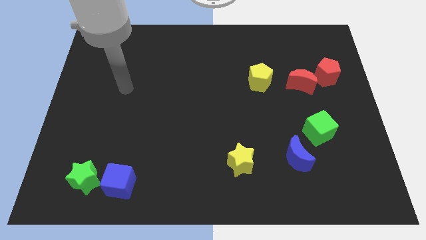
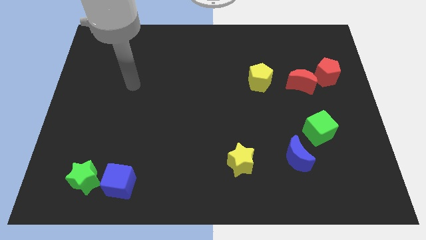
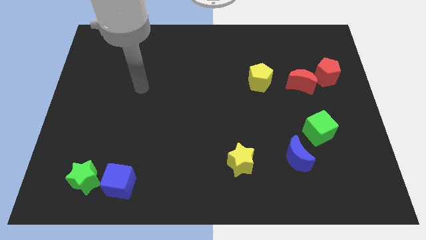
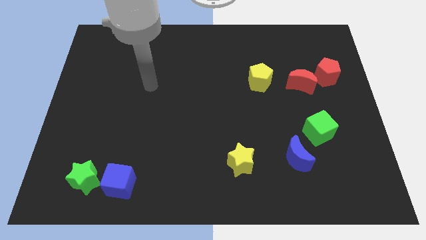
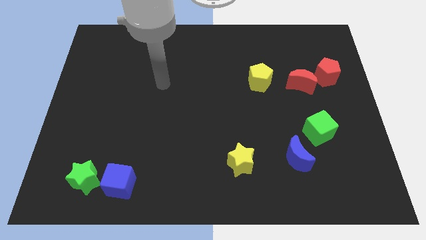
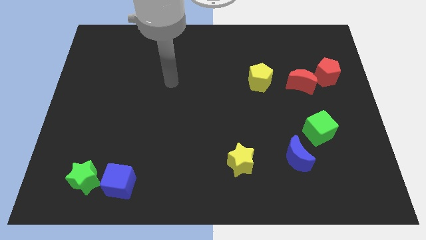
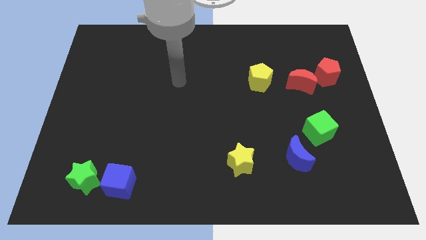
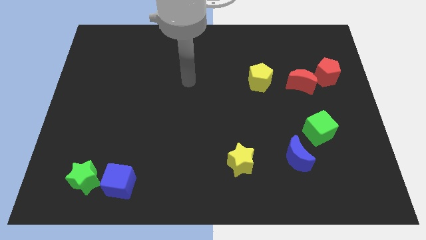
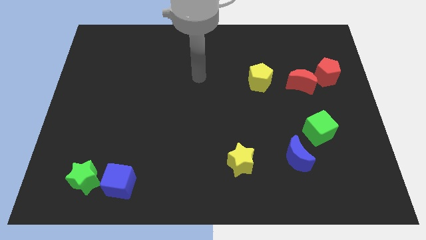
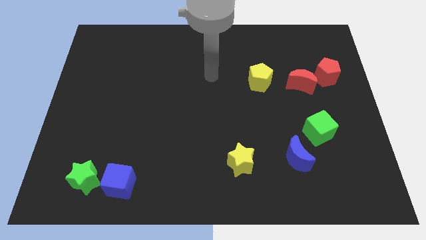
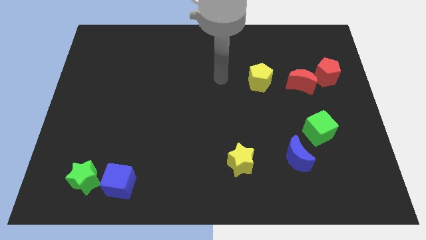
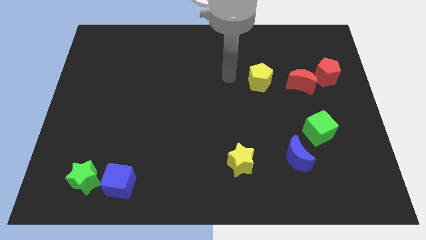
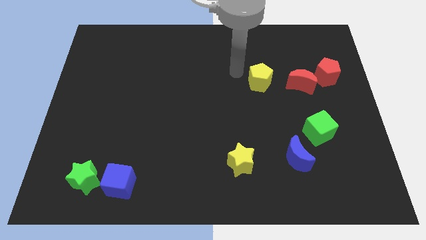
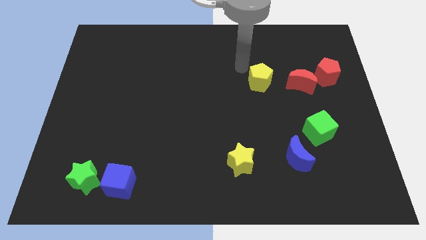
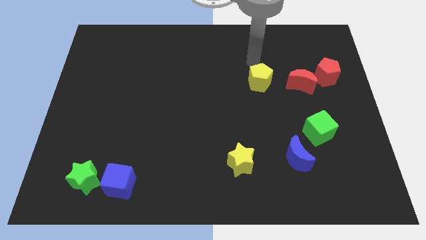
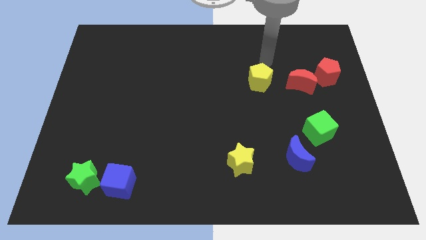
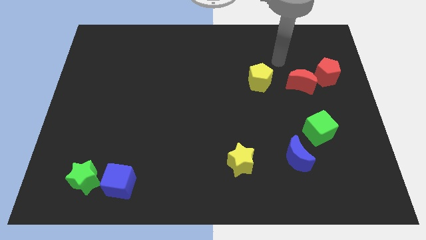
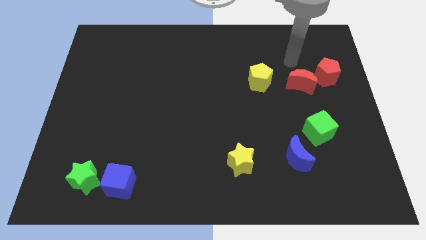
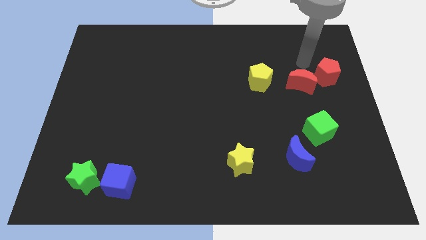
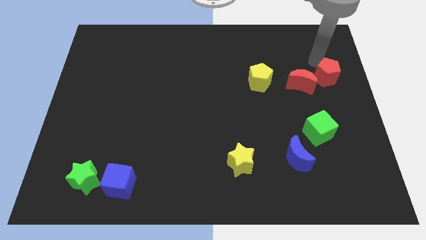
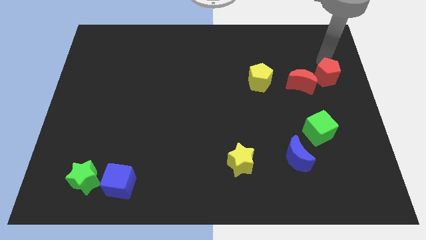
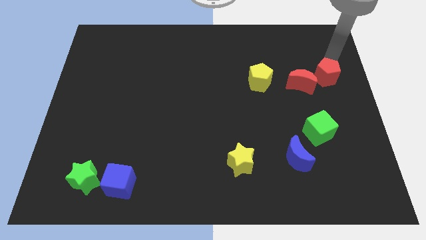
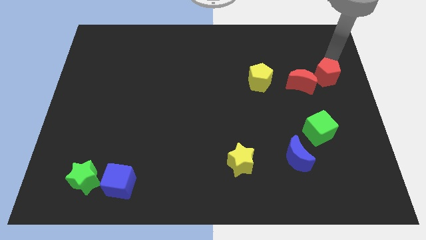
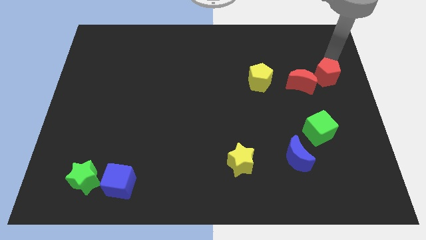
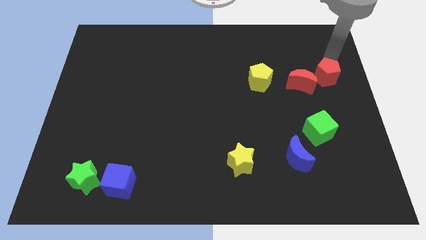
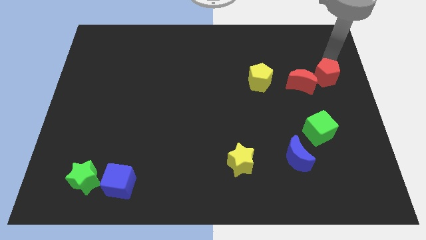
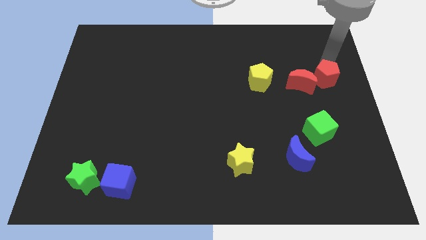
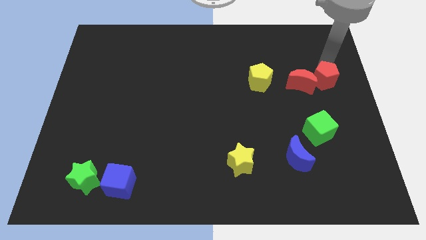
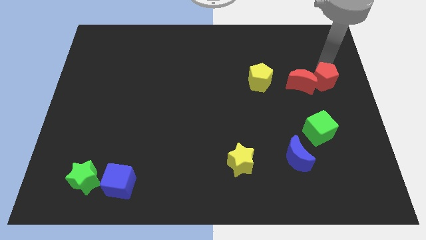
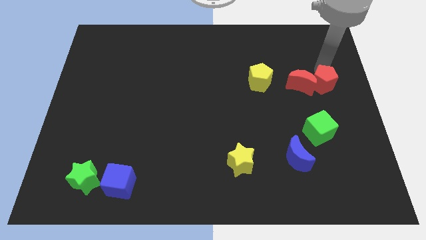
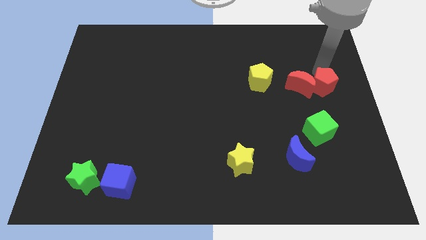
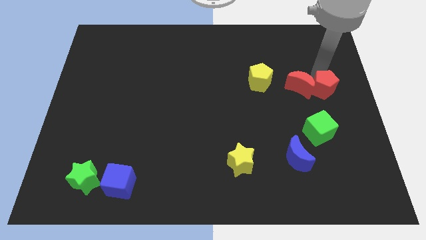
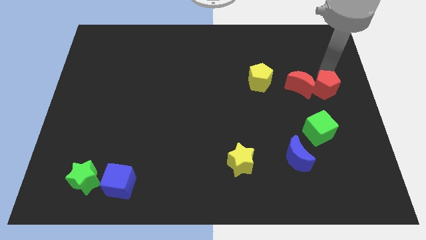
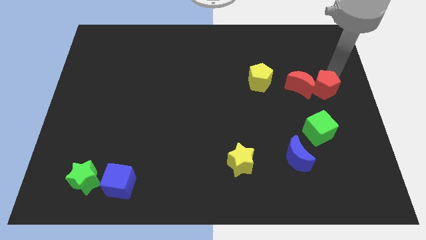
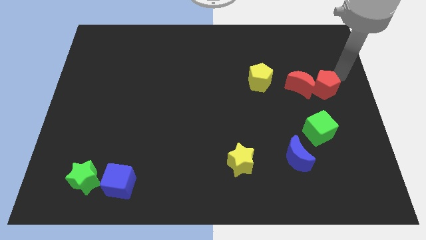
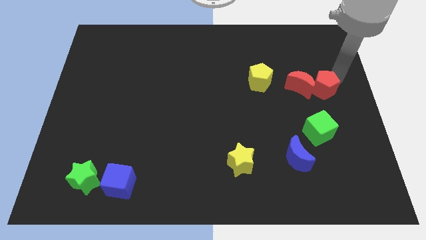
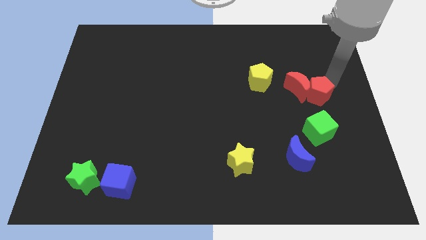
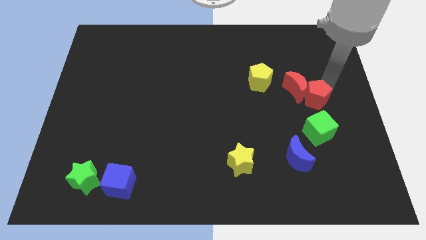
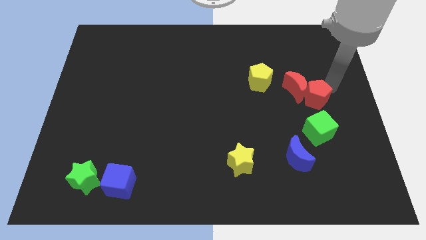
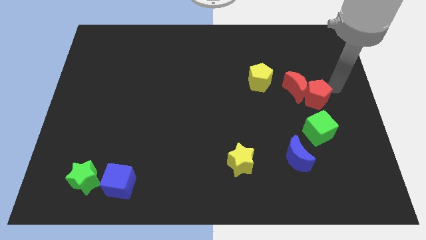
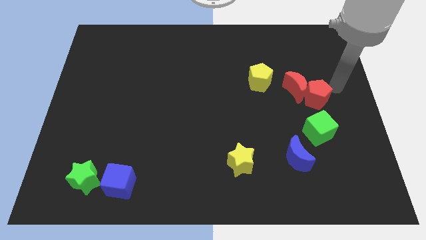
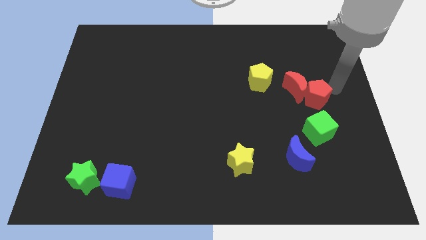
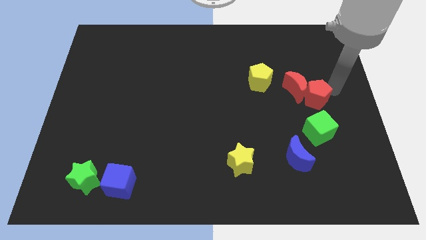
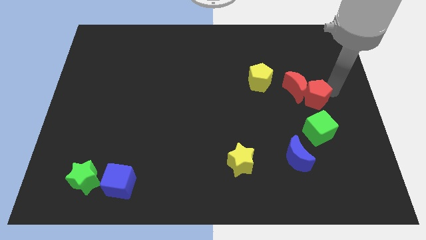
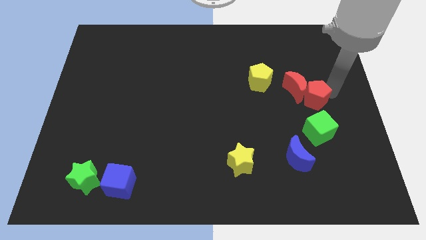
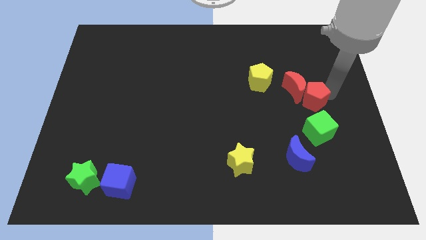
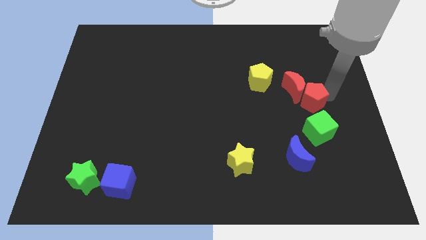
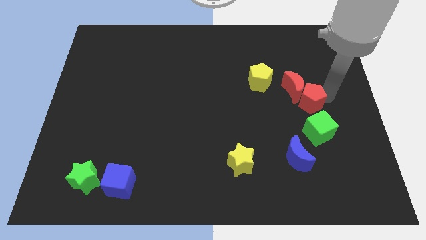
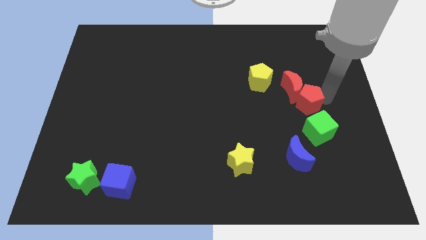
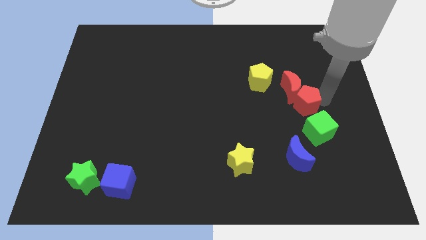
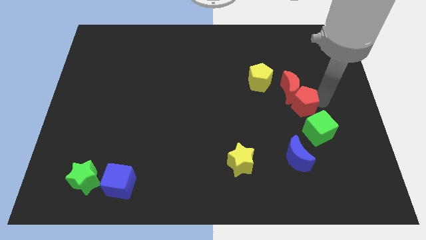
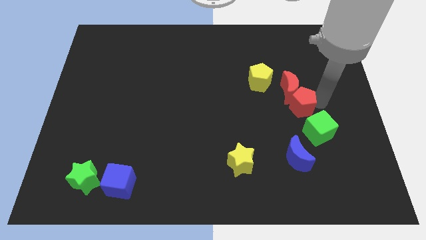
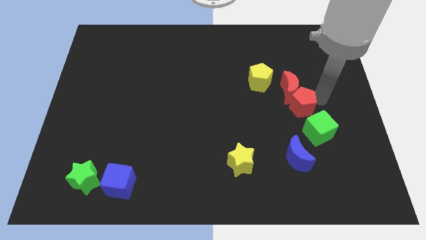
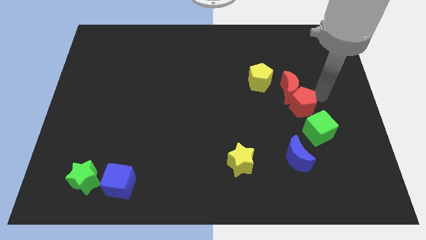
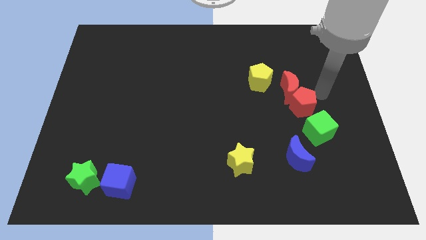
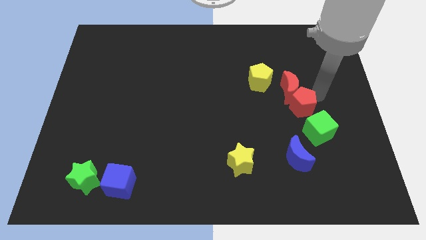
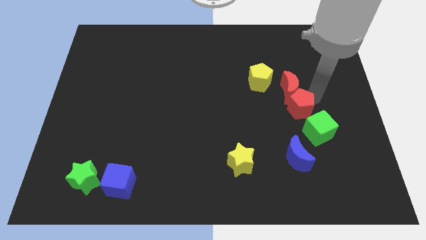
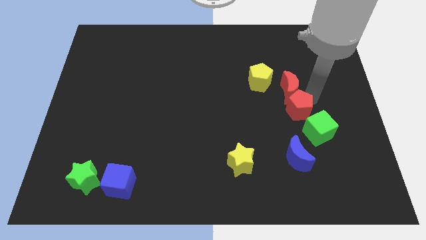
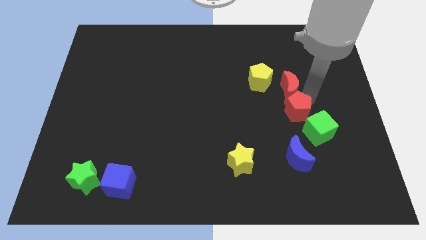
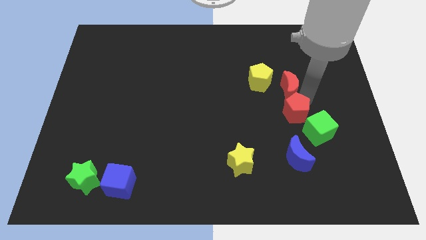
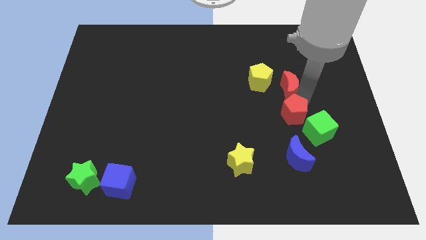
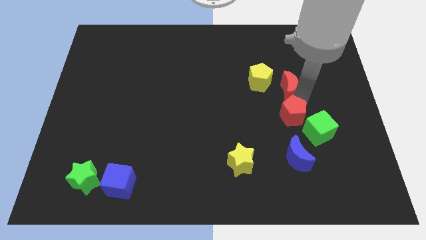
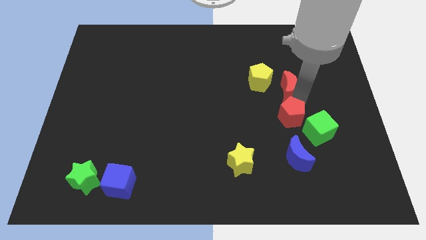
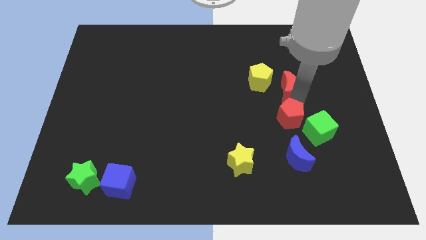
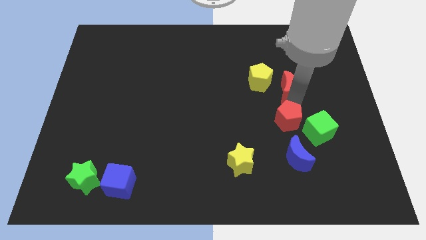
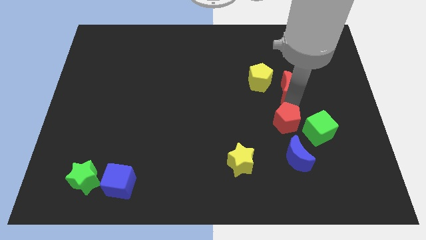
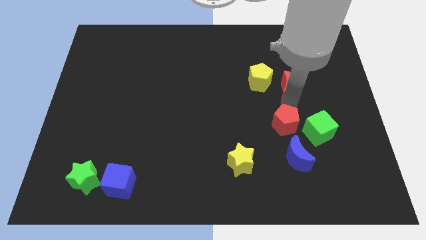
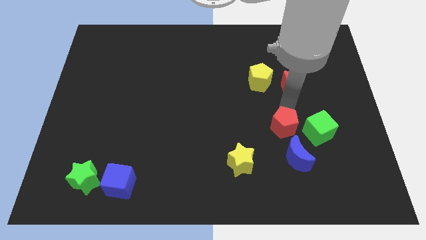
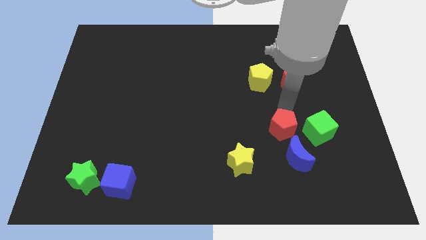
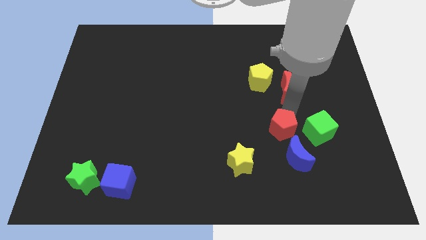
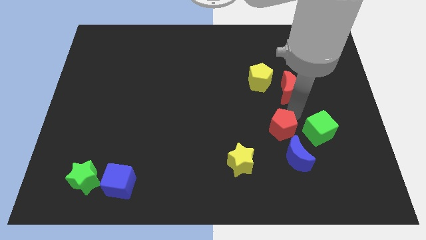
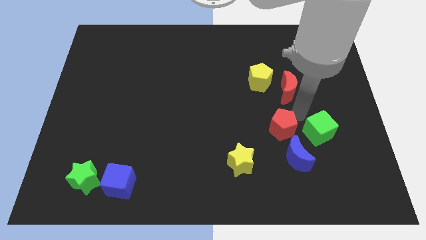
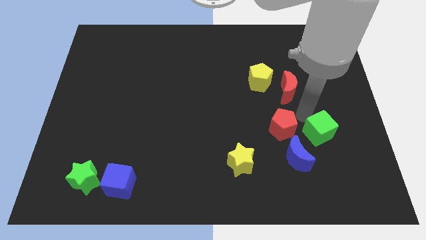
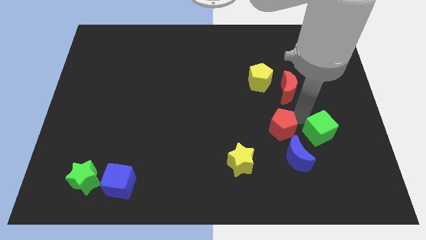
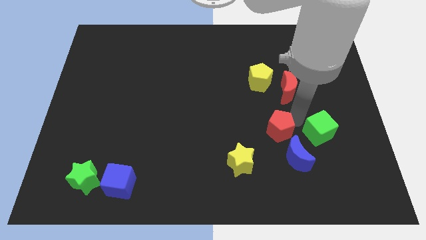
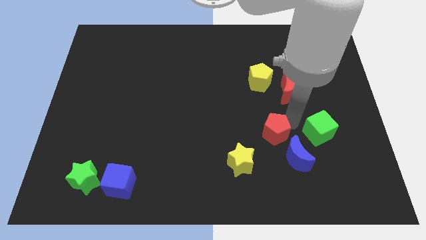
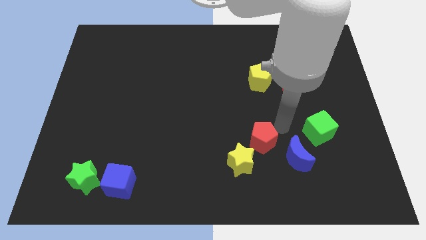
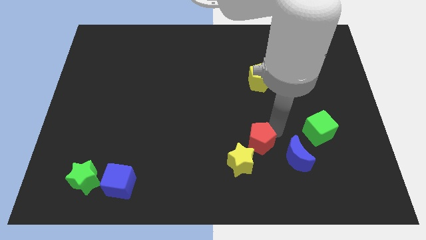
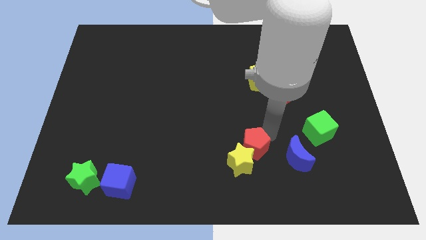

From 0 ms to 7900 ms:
put the red pentagon to the yellow star
